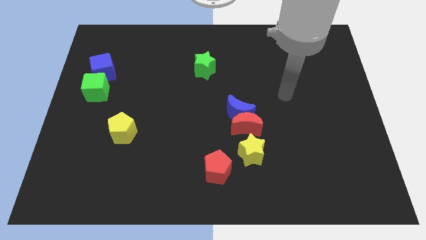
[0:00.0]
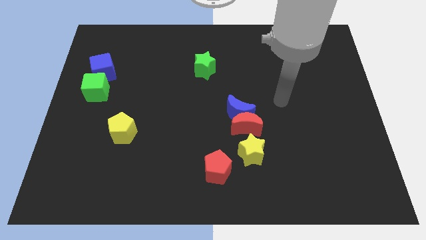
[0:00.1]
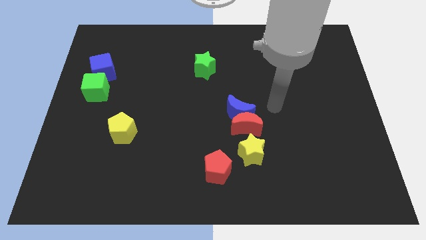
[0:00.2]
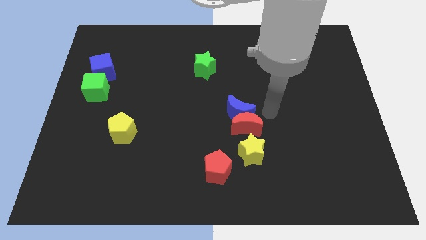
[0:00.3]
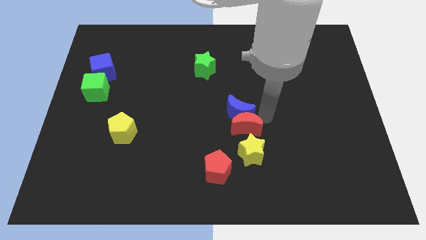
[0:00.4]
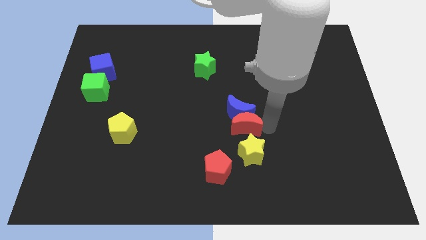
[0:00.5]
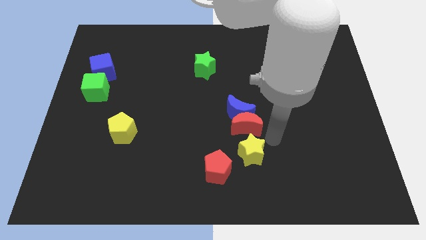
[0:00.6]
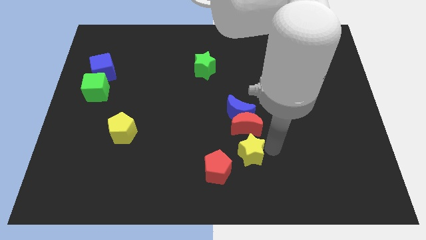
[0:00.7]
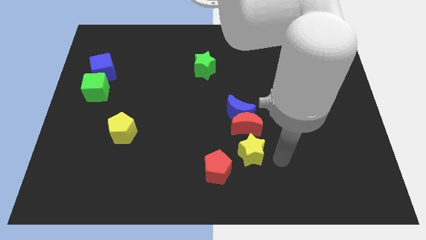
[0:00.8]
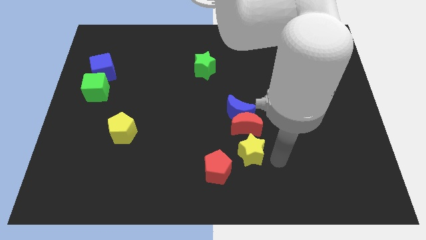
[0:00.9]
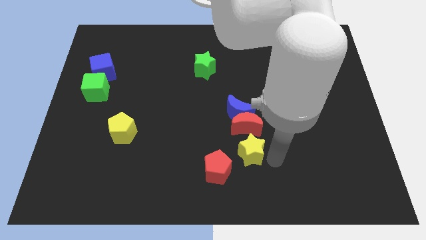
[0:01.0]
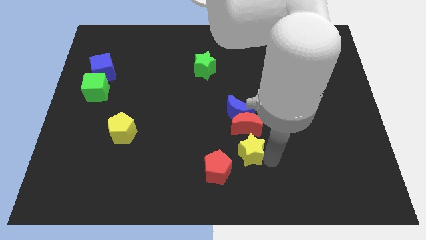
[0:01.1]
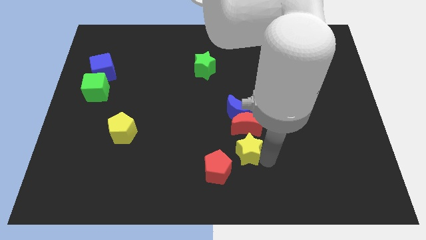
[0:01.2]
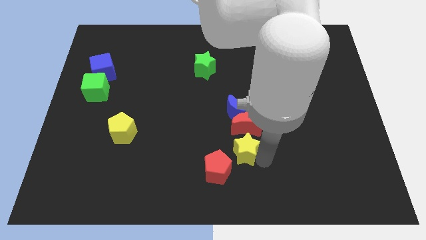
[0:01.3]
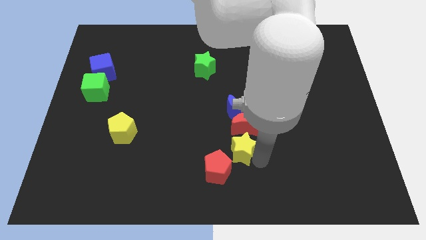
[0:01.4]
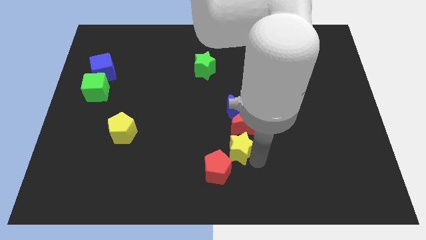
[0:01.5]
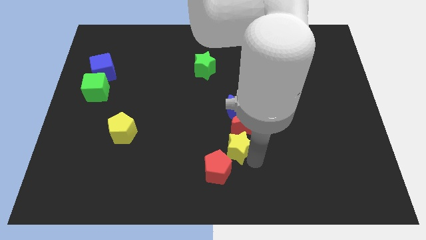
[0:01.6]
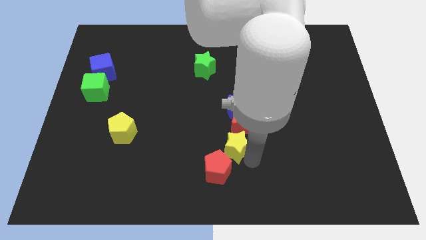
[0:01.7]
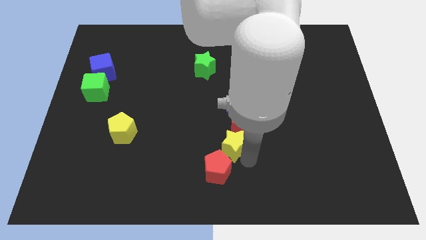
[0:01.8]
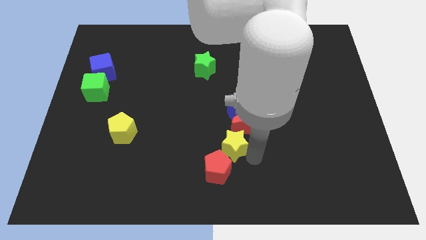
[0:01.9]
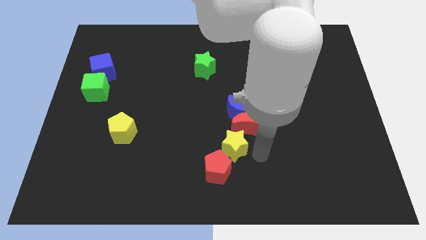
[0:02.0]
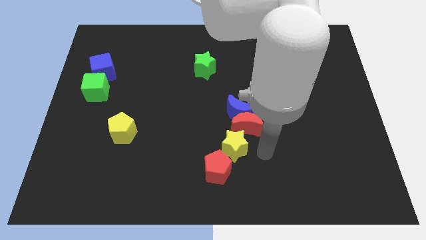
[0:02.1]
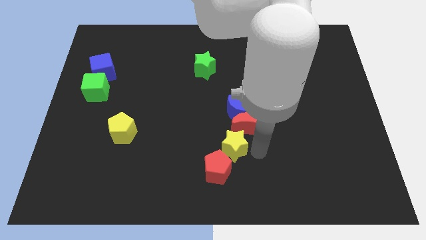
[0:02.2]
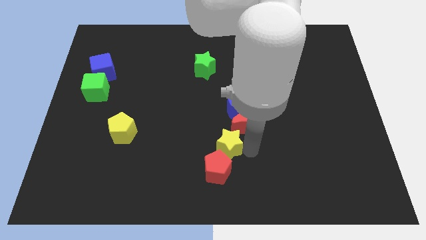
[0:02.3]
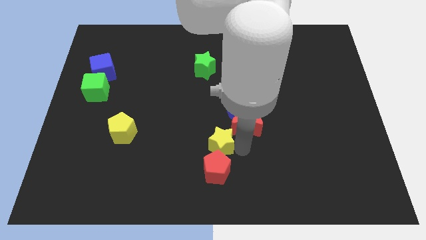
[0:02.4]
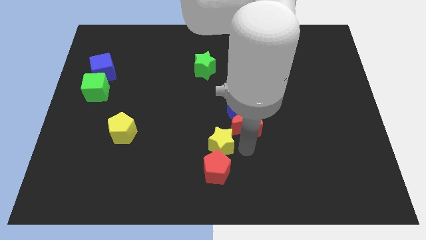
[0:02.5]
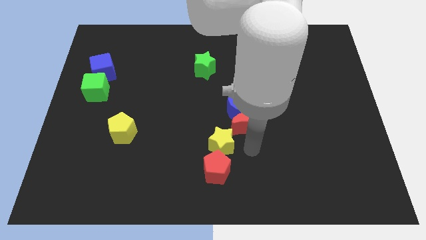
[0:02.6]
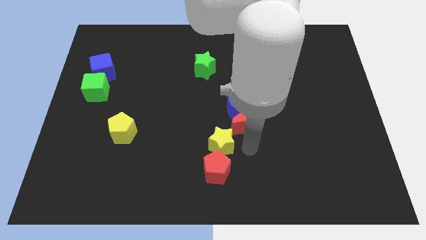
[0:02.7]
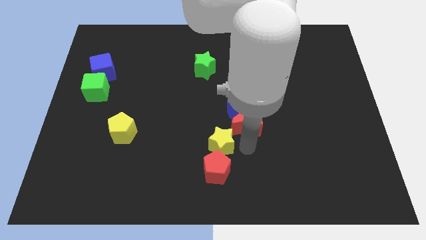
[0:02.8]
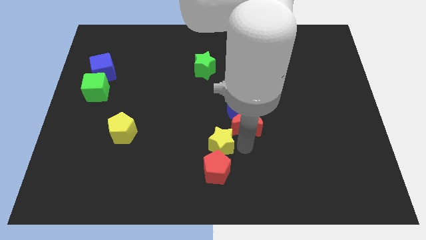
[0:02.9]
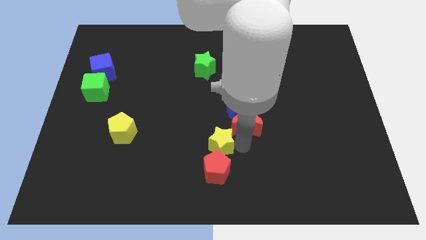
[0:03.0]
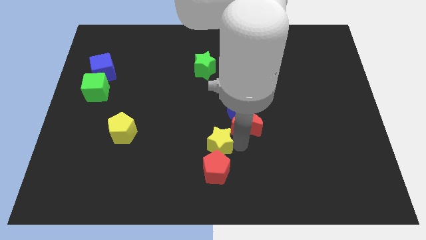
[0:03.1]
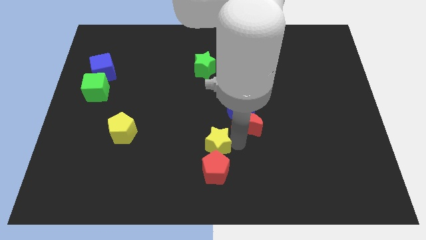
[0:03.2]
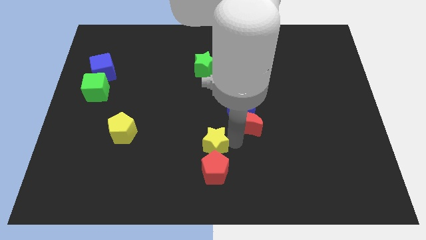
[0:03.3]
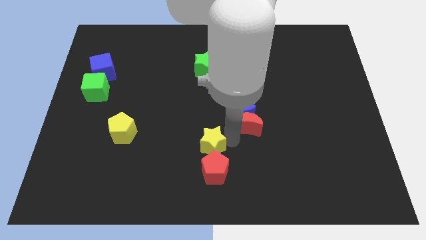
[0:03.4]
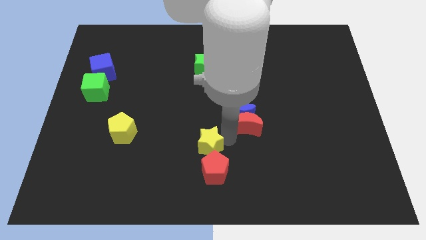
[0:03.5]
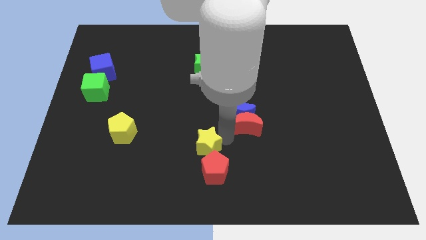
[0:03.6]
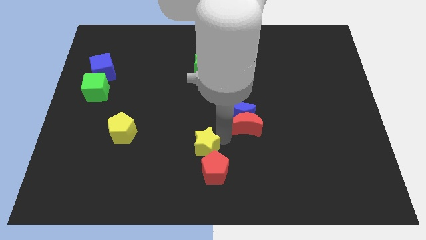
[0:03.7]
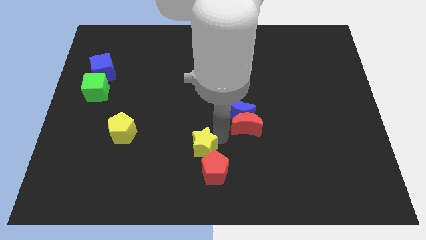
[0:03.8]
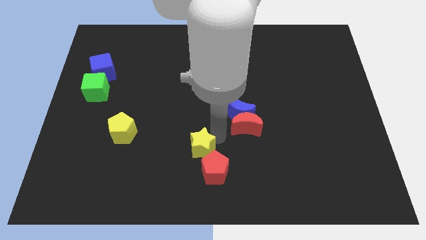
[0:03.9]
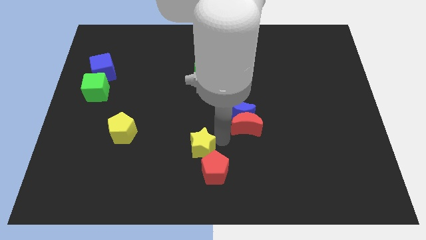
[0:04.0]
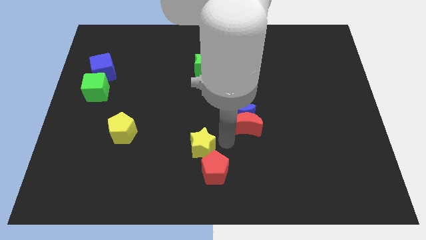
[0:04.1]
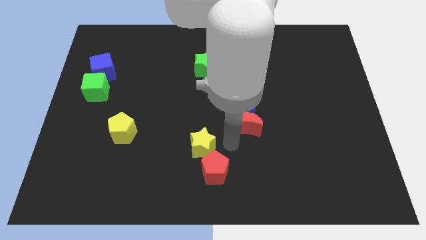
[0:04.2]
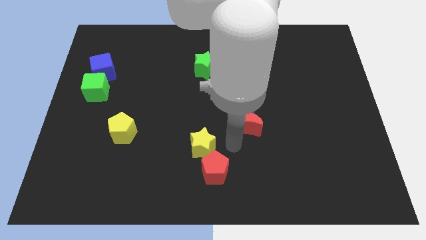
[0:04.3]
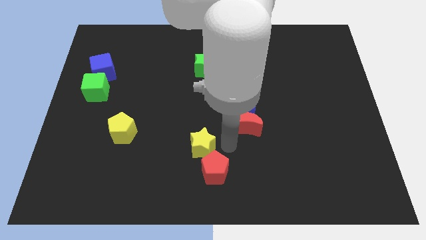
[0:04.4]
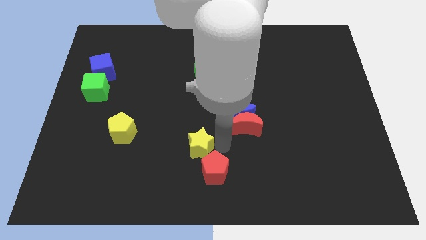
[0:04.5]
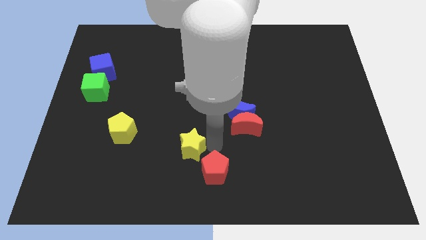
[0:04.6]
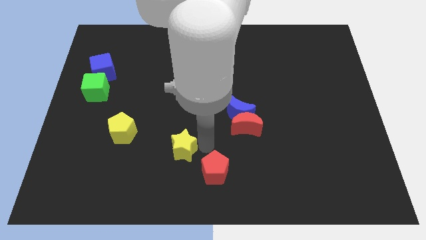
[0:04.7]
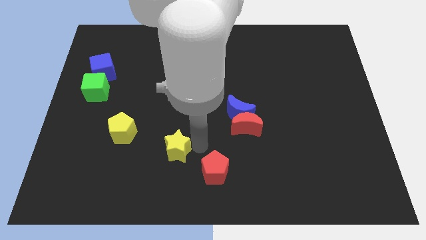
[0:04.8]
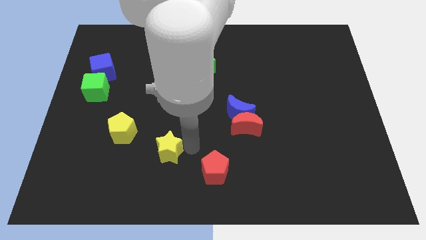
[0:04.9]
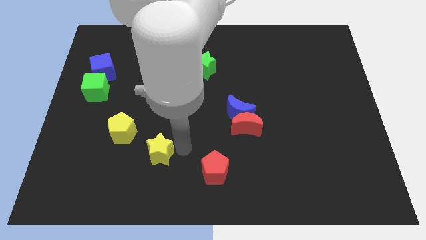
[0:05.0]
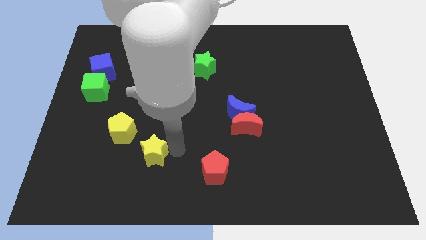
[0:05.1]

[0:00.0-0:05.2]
slide the yellow star left

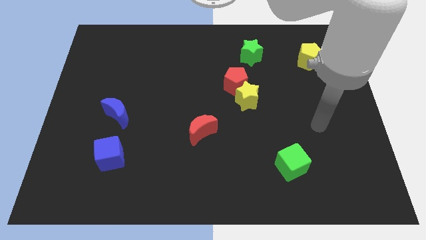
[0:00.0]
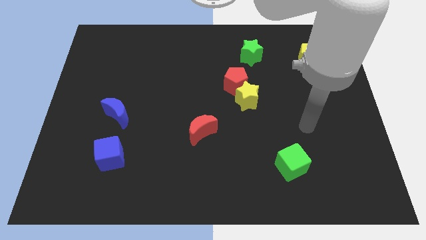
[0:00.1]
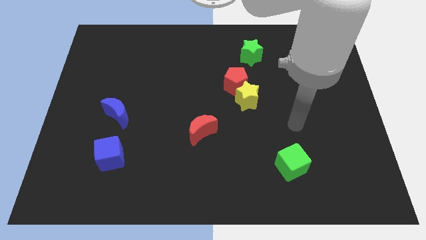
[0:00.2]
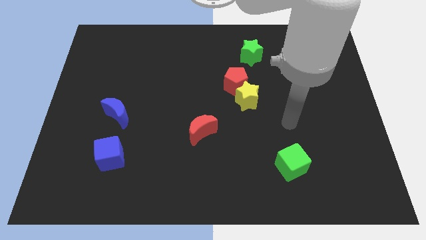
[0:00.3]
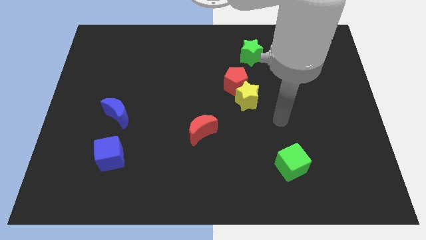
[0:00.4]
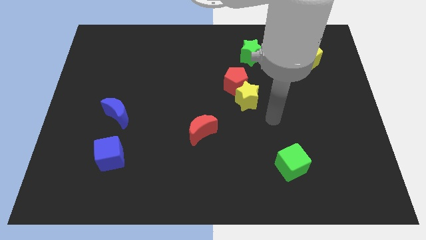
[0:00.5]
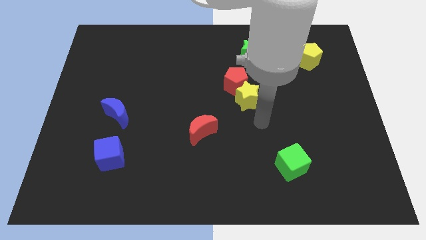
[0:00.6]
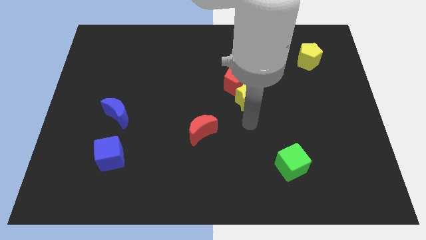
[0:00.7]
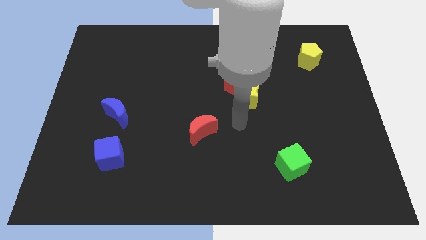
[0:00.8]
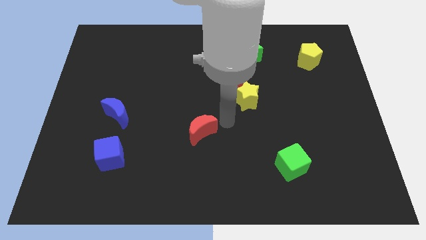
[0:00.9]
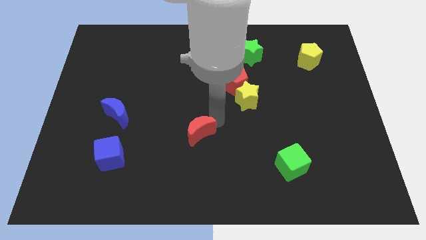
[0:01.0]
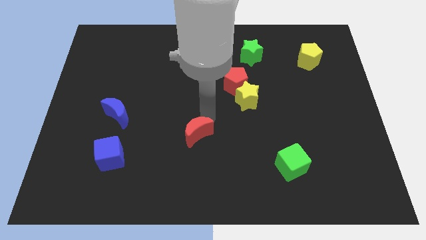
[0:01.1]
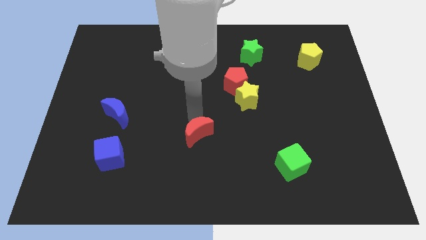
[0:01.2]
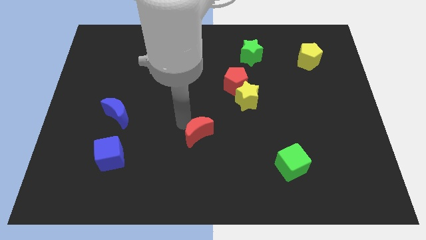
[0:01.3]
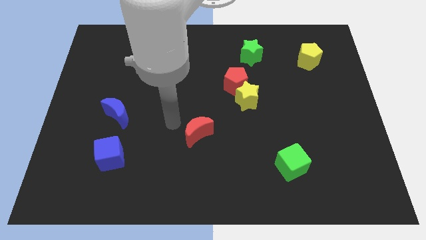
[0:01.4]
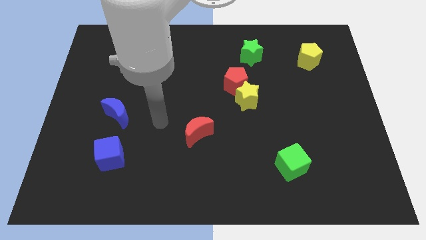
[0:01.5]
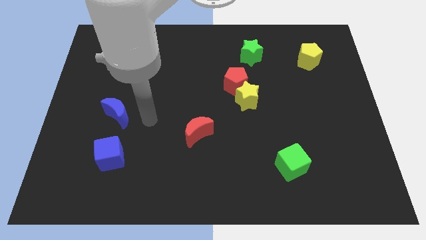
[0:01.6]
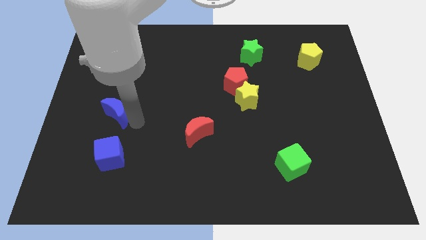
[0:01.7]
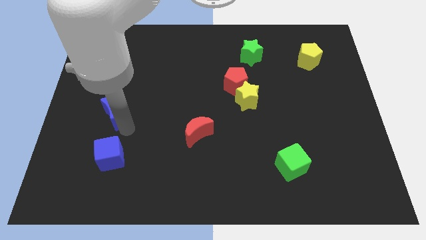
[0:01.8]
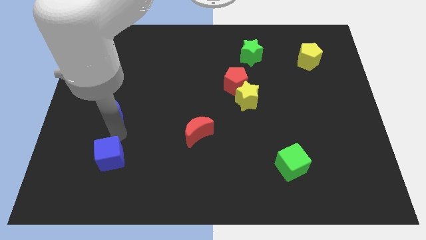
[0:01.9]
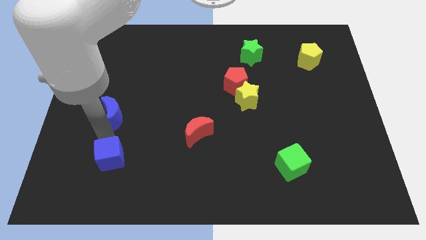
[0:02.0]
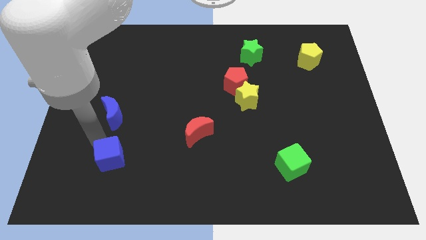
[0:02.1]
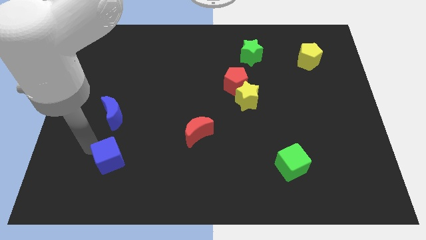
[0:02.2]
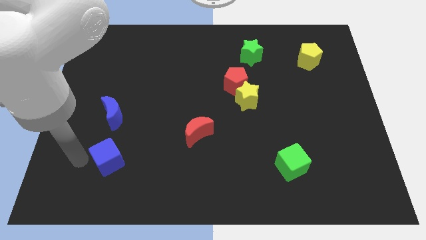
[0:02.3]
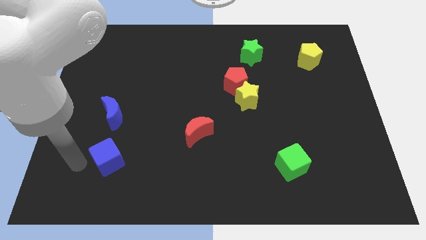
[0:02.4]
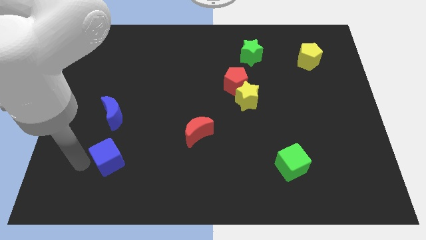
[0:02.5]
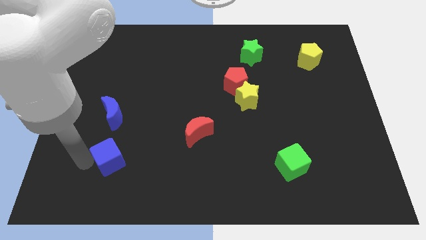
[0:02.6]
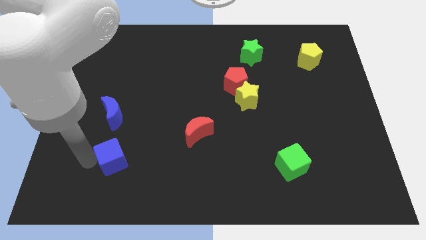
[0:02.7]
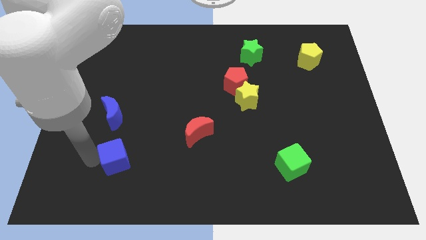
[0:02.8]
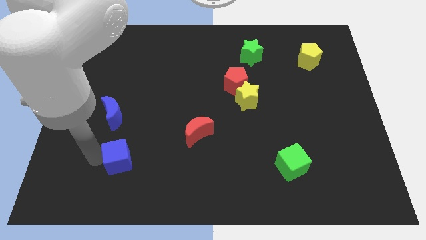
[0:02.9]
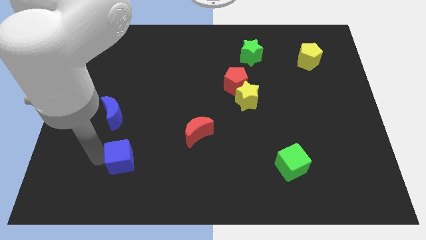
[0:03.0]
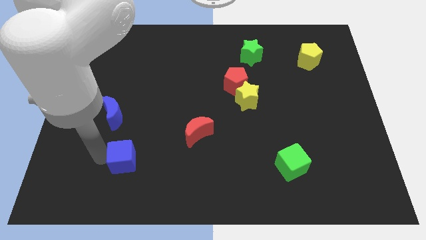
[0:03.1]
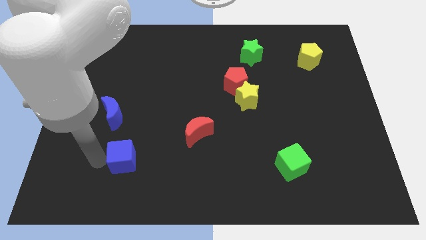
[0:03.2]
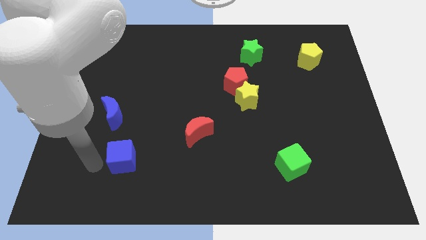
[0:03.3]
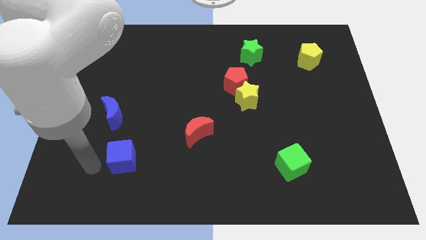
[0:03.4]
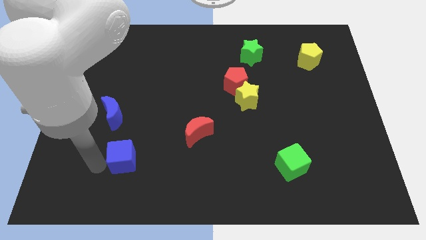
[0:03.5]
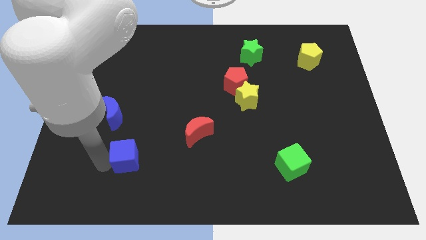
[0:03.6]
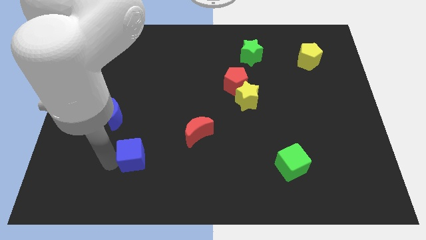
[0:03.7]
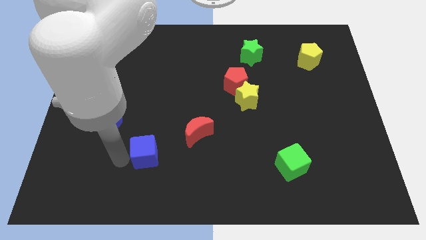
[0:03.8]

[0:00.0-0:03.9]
slide the blue cube right somewhat
